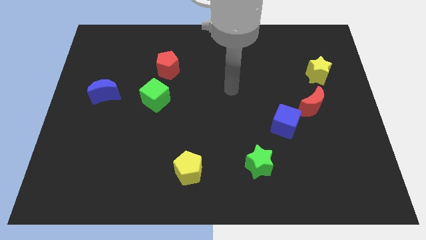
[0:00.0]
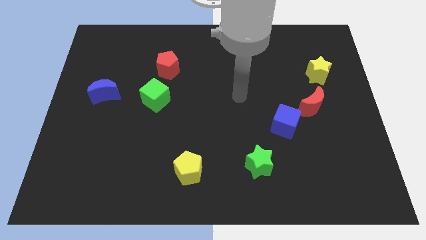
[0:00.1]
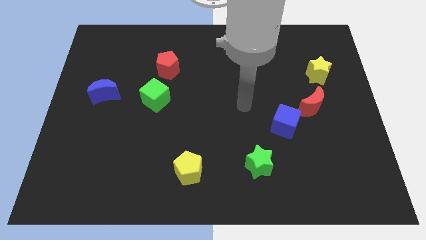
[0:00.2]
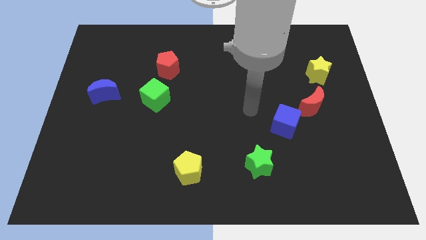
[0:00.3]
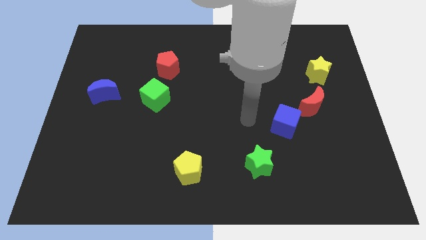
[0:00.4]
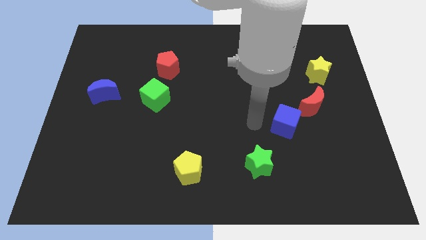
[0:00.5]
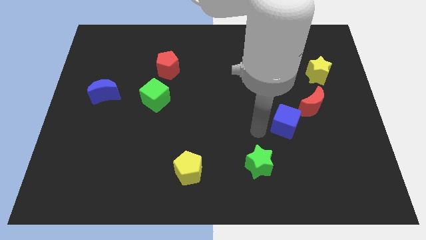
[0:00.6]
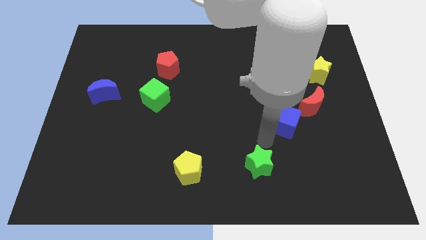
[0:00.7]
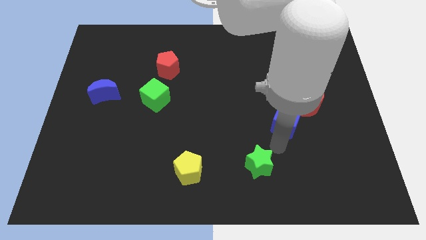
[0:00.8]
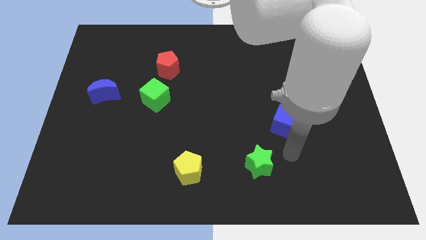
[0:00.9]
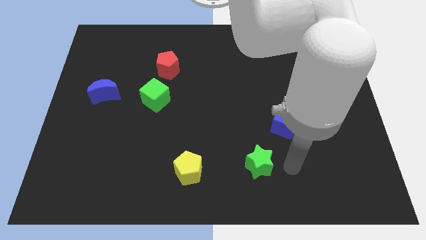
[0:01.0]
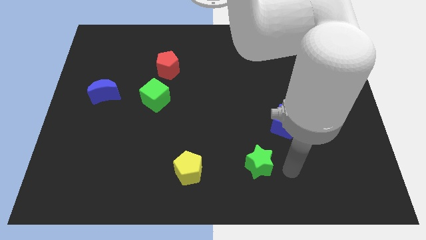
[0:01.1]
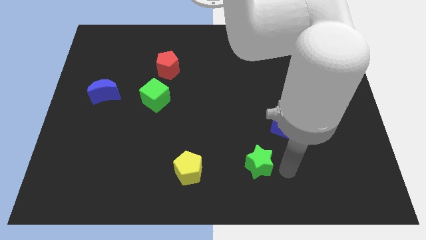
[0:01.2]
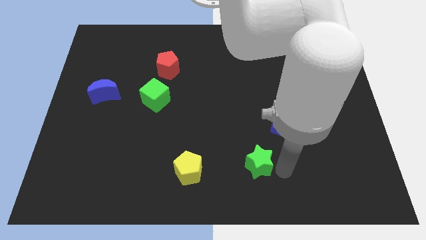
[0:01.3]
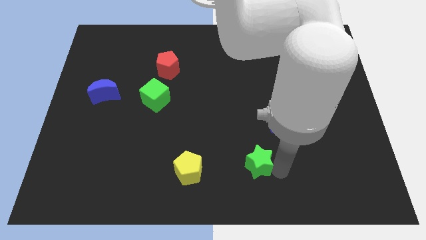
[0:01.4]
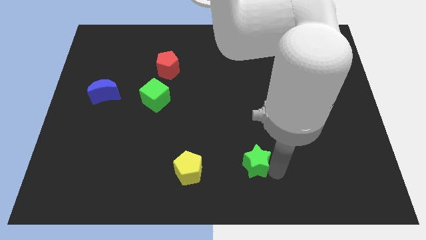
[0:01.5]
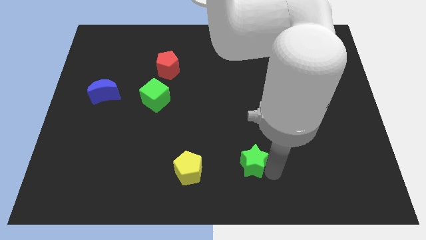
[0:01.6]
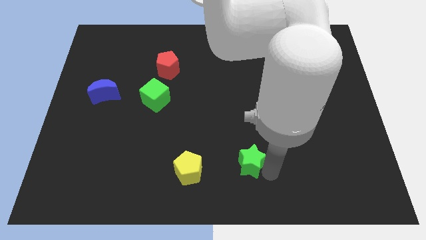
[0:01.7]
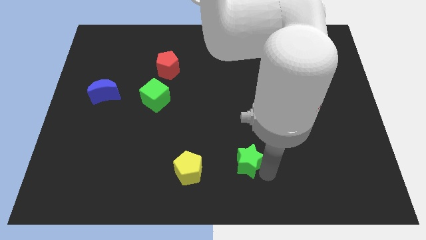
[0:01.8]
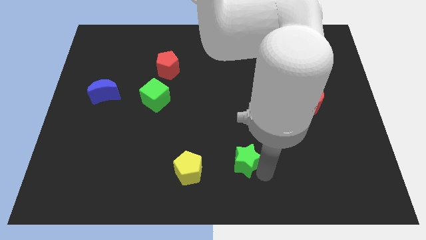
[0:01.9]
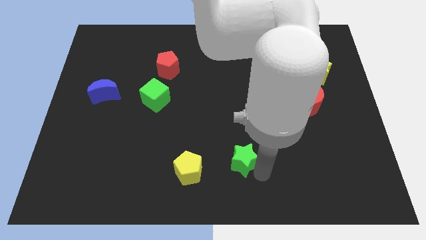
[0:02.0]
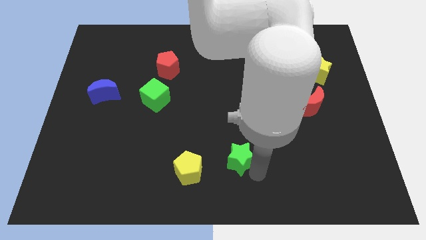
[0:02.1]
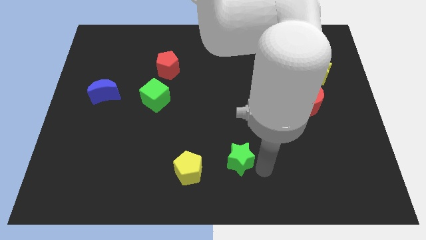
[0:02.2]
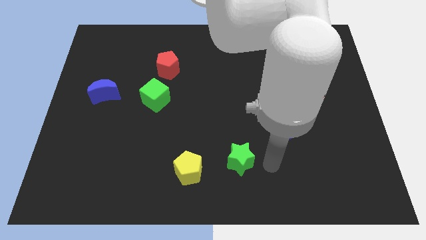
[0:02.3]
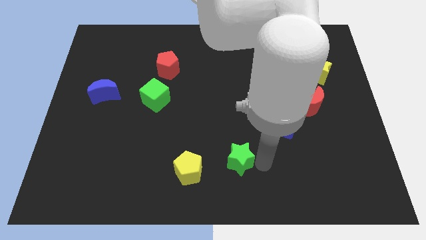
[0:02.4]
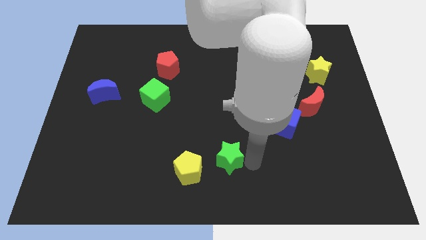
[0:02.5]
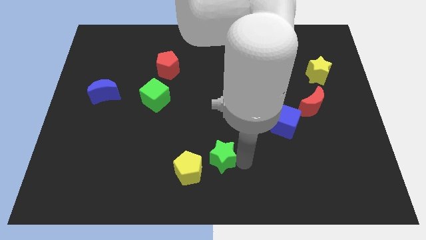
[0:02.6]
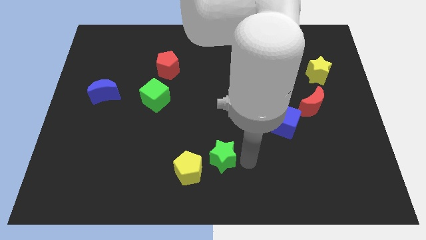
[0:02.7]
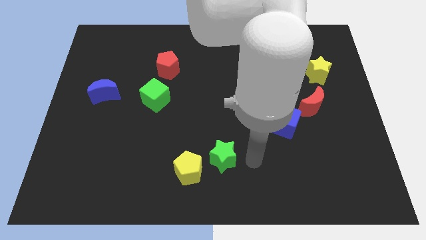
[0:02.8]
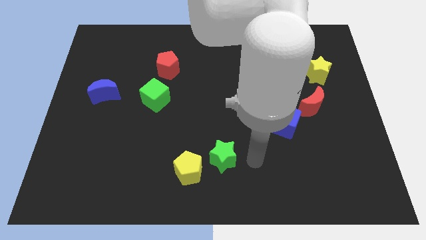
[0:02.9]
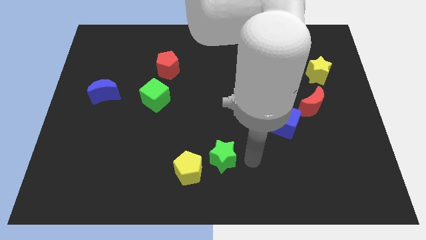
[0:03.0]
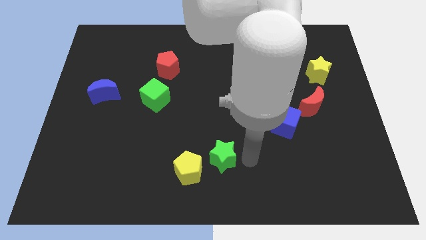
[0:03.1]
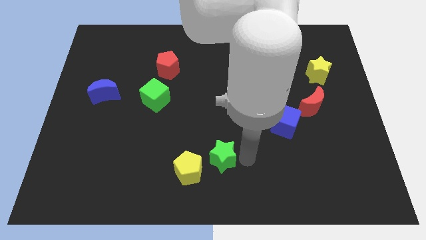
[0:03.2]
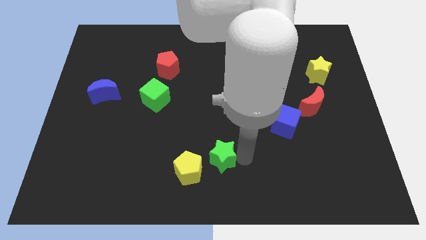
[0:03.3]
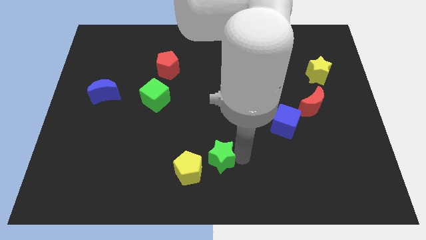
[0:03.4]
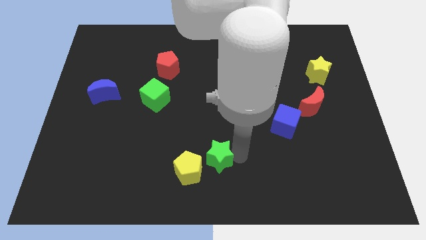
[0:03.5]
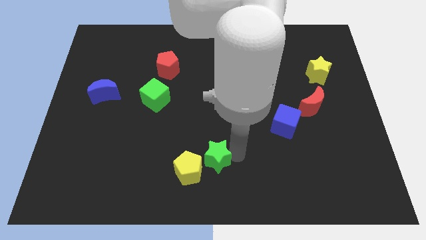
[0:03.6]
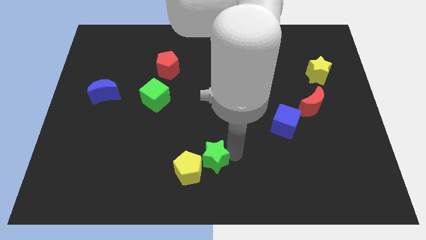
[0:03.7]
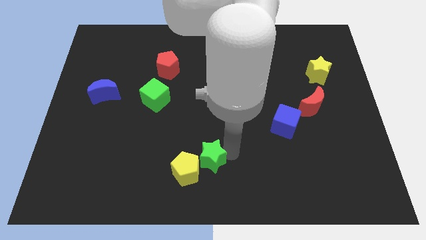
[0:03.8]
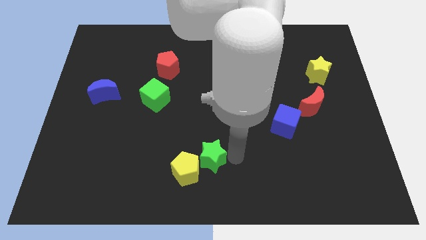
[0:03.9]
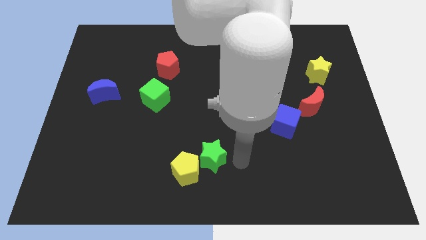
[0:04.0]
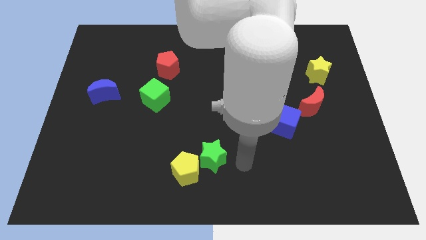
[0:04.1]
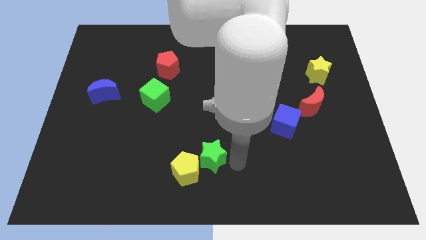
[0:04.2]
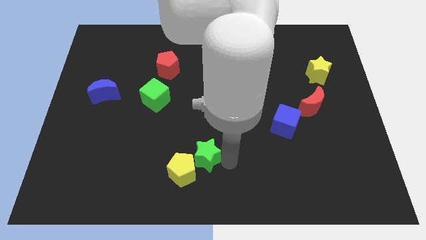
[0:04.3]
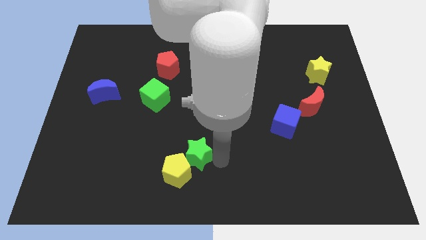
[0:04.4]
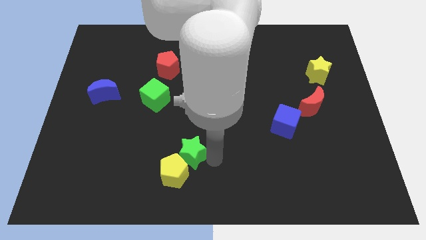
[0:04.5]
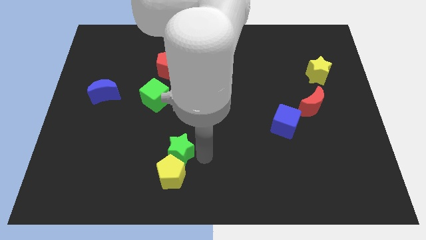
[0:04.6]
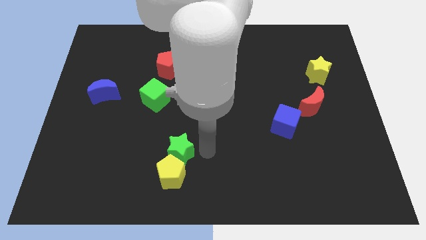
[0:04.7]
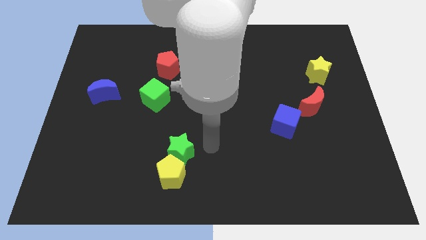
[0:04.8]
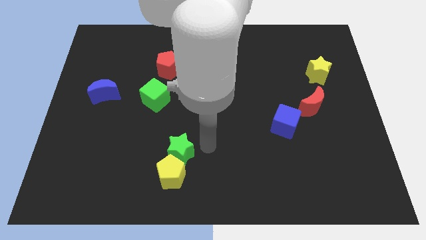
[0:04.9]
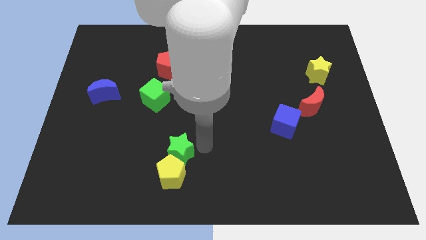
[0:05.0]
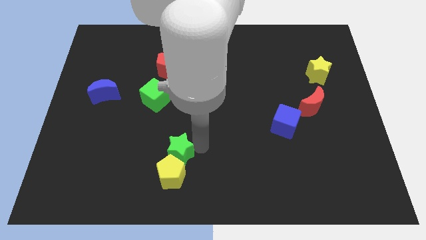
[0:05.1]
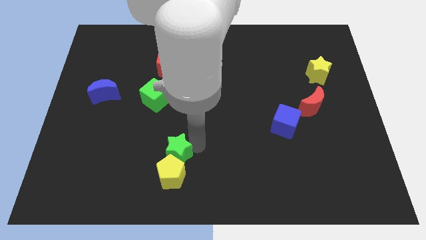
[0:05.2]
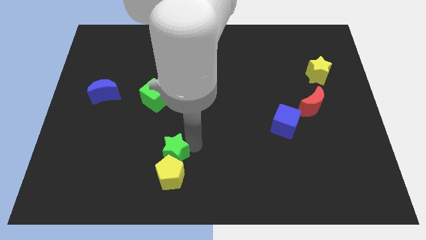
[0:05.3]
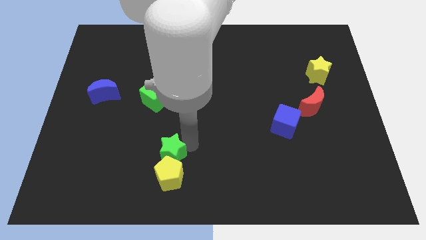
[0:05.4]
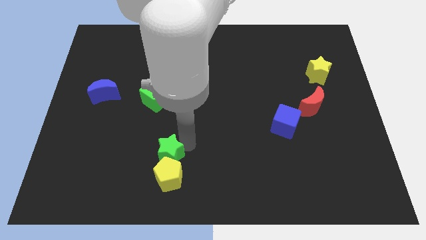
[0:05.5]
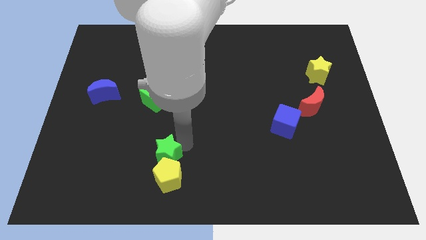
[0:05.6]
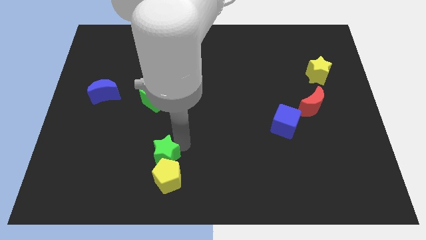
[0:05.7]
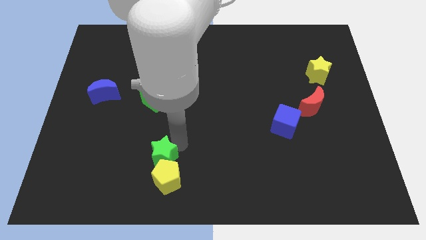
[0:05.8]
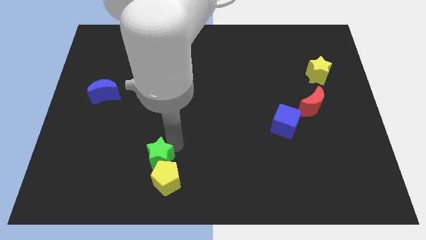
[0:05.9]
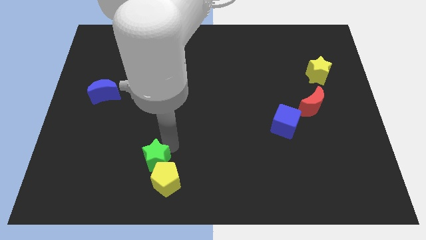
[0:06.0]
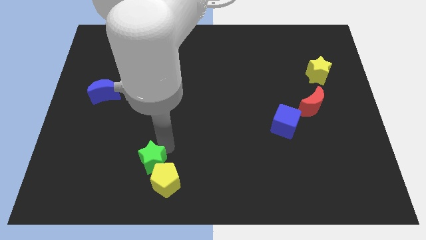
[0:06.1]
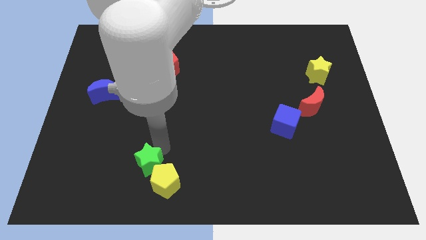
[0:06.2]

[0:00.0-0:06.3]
put the green star to the left side of the yellow pentagon
